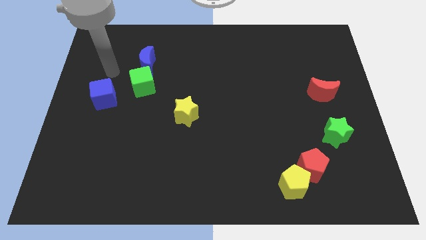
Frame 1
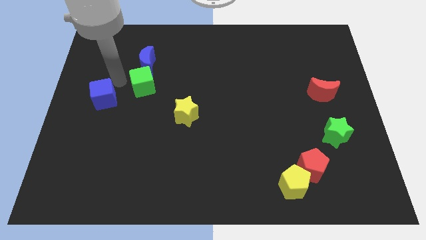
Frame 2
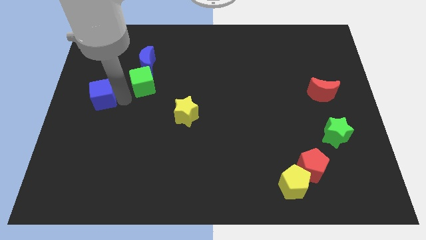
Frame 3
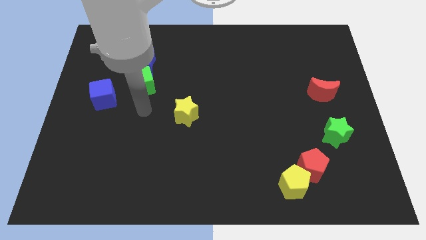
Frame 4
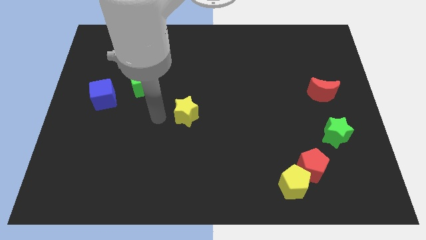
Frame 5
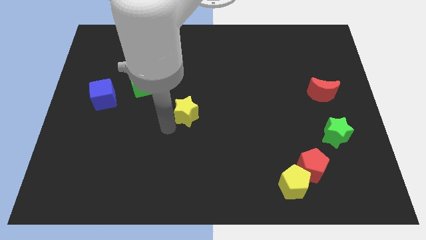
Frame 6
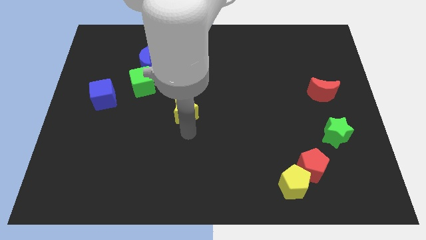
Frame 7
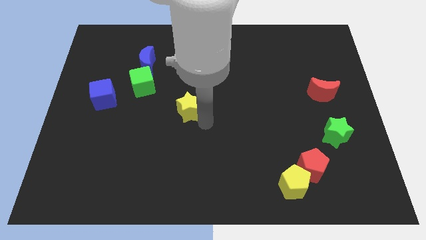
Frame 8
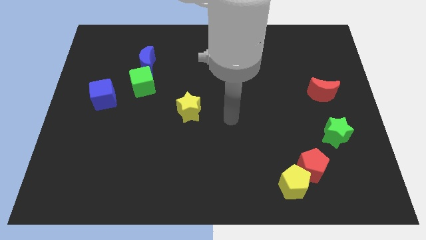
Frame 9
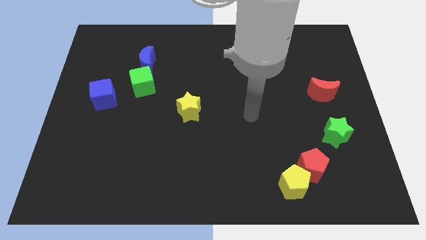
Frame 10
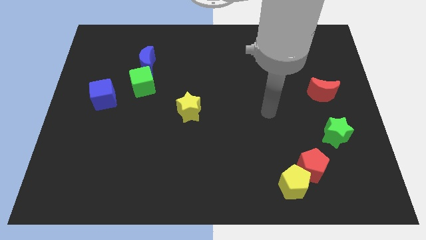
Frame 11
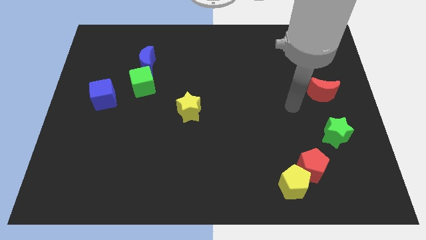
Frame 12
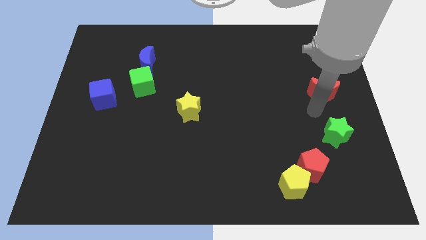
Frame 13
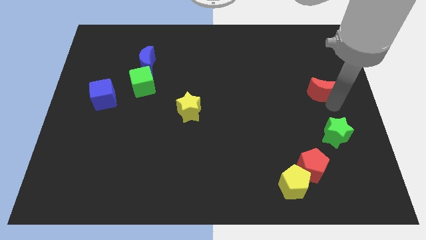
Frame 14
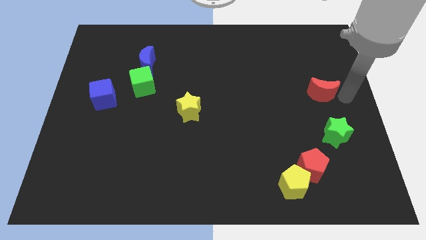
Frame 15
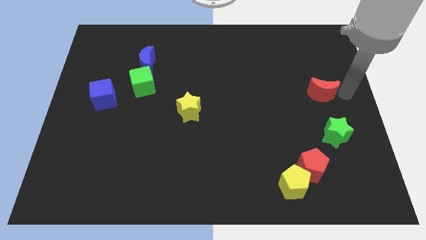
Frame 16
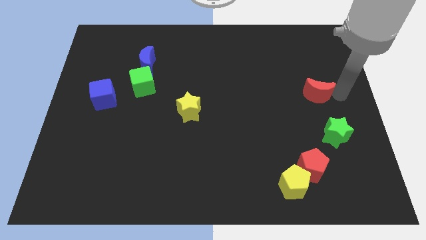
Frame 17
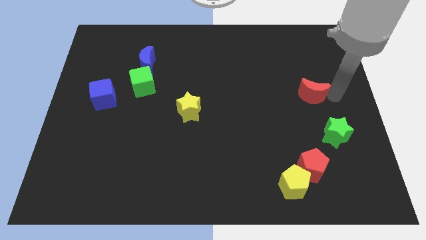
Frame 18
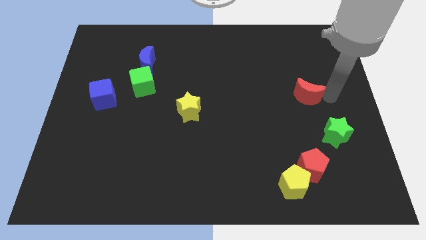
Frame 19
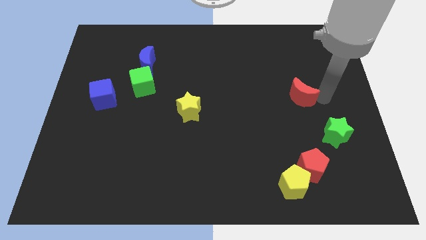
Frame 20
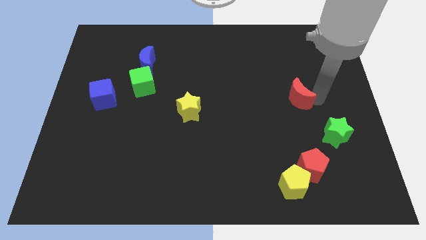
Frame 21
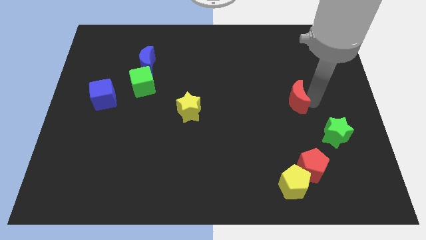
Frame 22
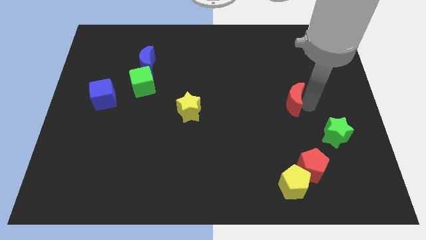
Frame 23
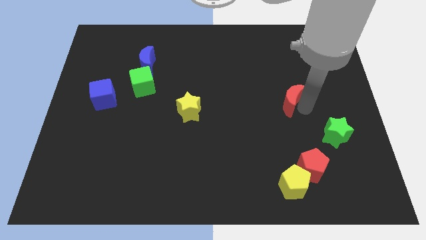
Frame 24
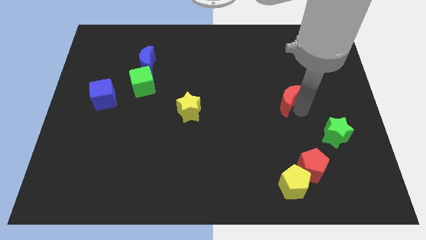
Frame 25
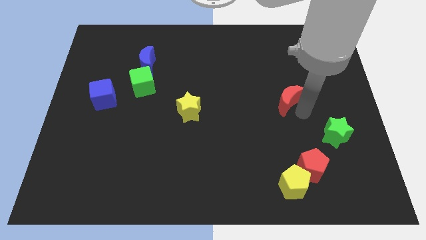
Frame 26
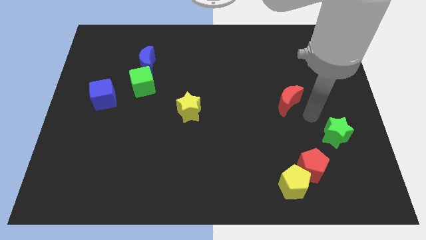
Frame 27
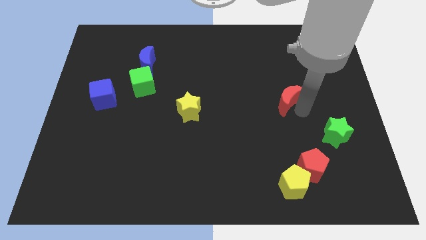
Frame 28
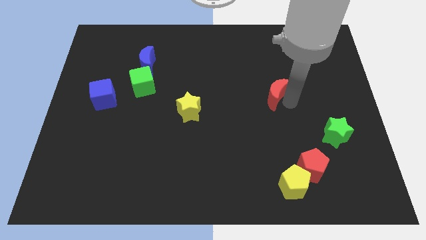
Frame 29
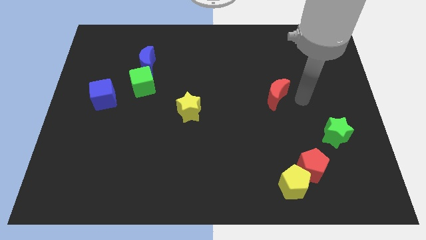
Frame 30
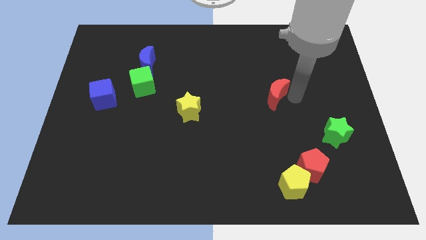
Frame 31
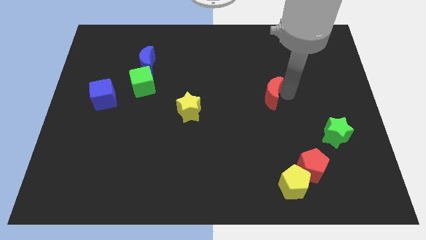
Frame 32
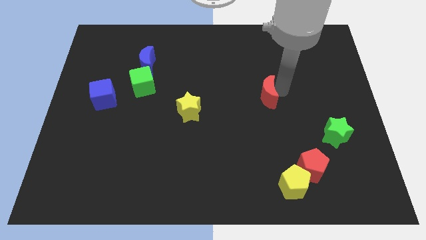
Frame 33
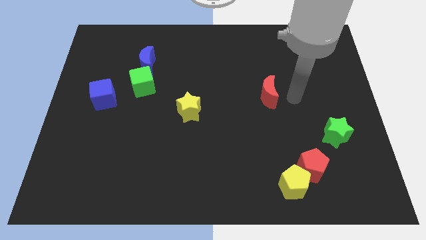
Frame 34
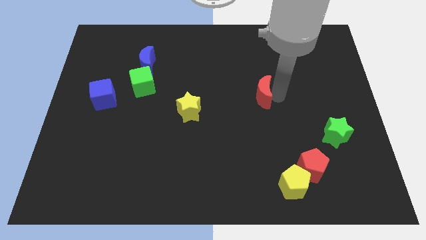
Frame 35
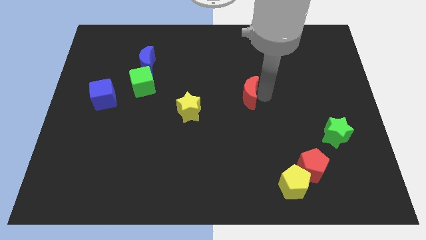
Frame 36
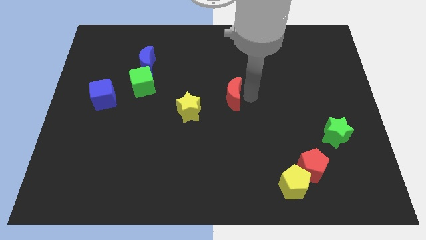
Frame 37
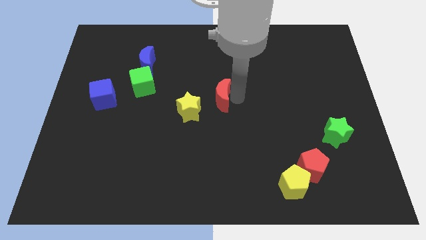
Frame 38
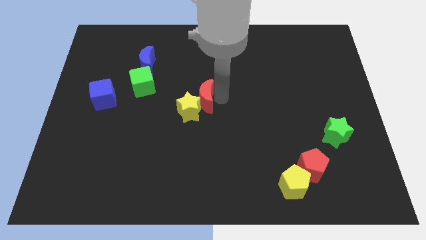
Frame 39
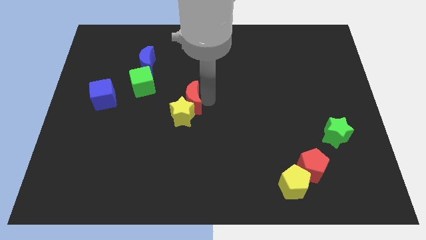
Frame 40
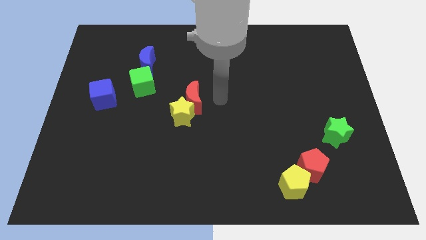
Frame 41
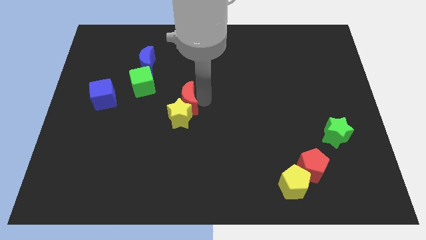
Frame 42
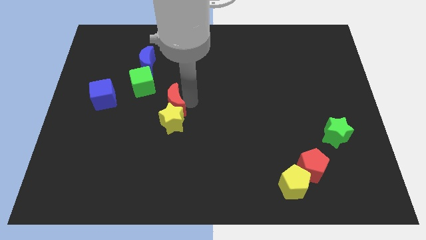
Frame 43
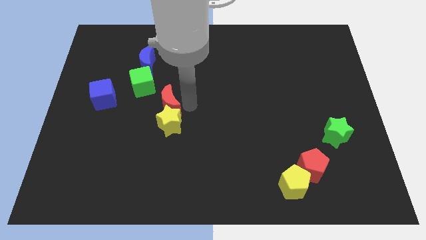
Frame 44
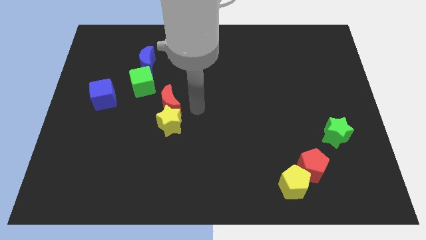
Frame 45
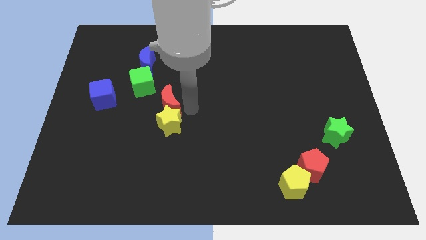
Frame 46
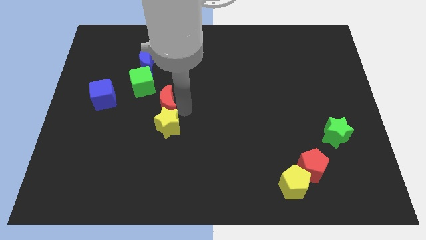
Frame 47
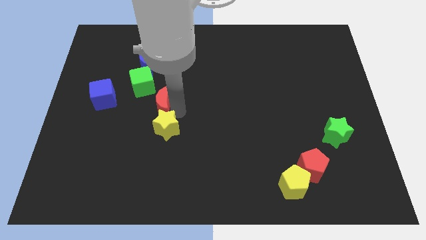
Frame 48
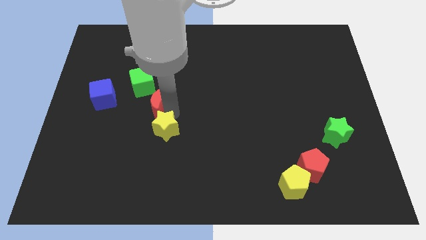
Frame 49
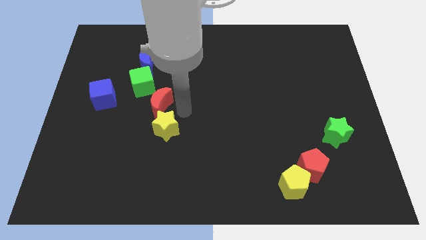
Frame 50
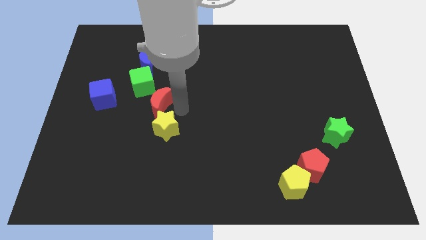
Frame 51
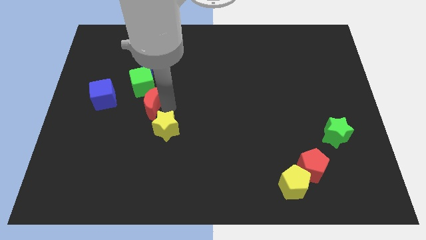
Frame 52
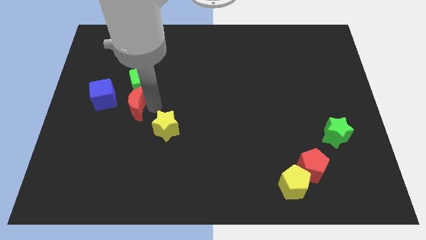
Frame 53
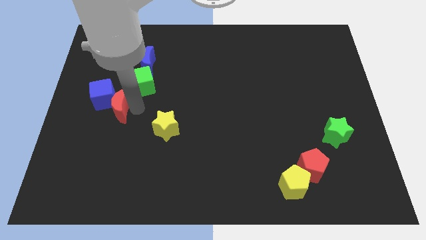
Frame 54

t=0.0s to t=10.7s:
push the red moon towards the blue cube

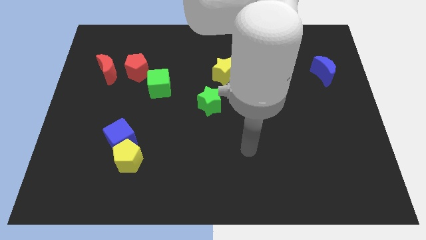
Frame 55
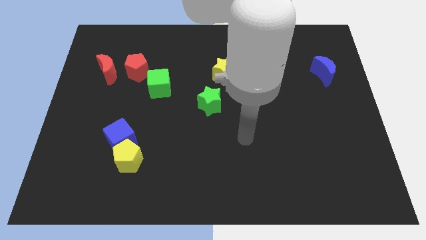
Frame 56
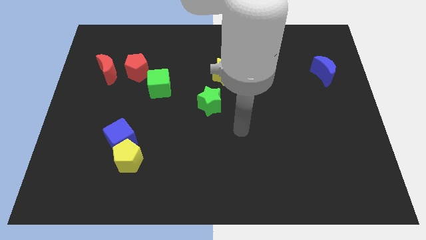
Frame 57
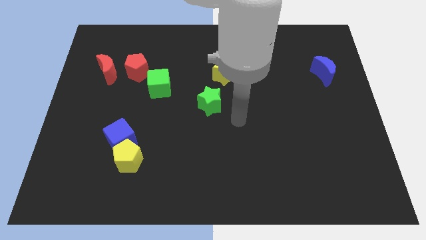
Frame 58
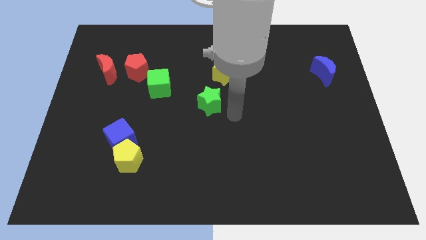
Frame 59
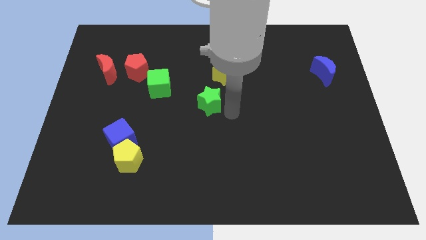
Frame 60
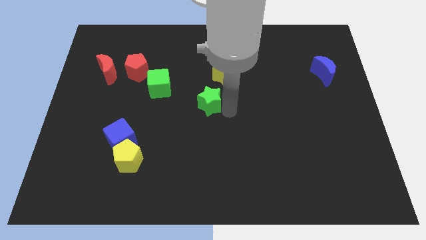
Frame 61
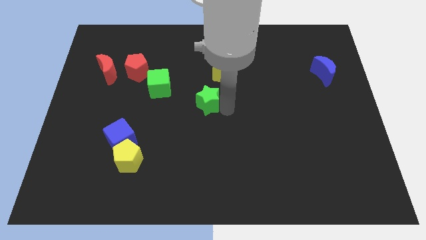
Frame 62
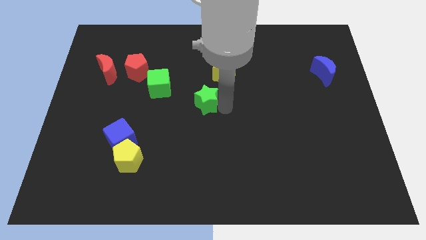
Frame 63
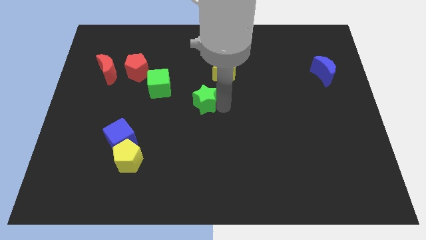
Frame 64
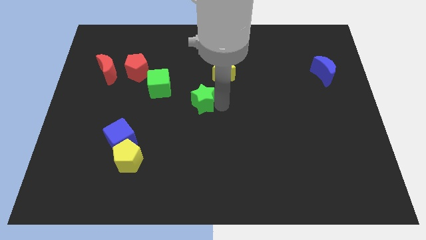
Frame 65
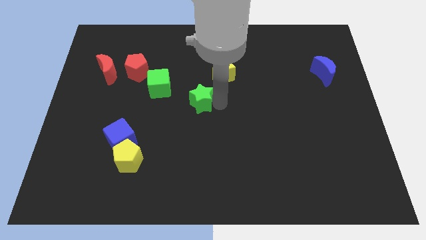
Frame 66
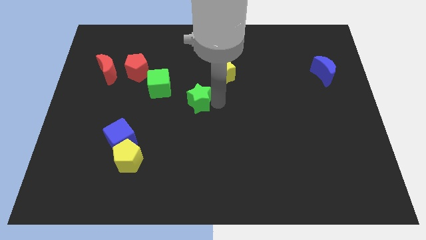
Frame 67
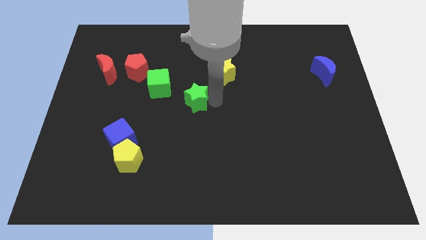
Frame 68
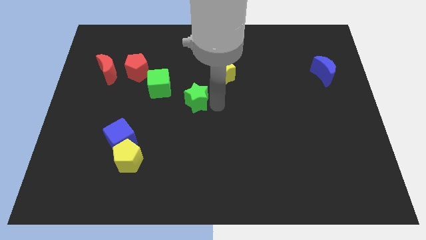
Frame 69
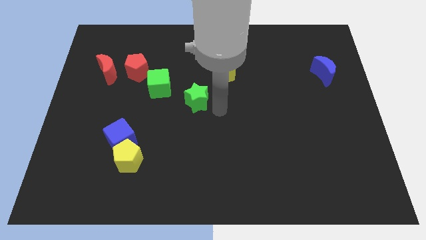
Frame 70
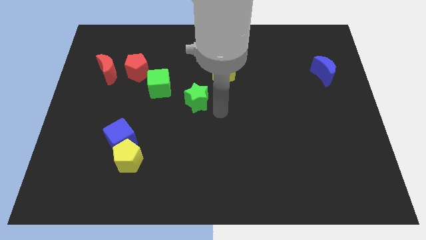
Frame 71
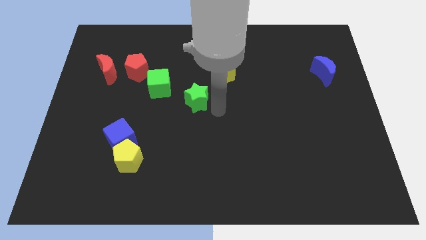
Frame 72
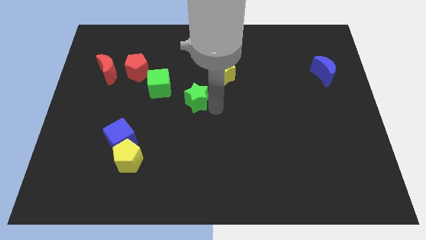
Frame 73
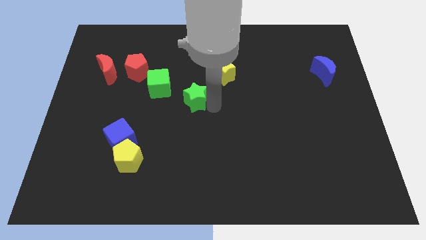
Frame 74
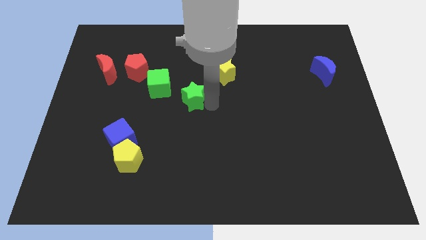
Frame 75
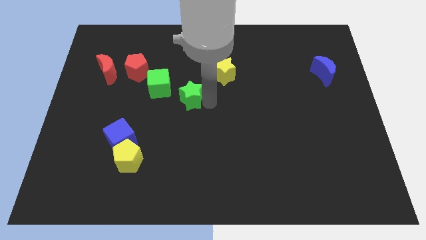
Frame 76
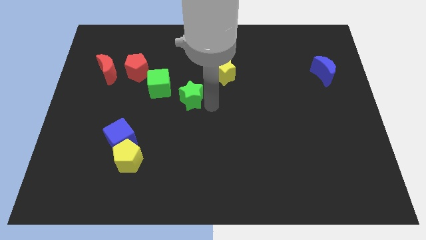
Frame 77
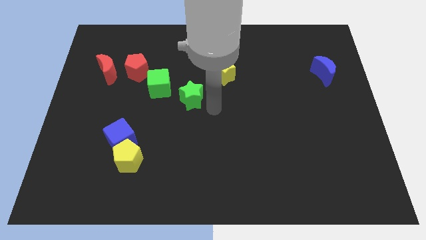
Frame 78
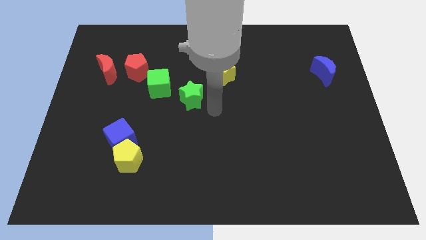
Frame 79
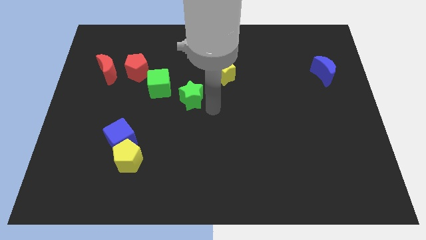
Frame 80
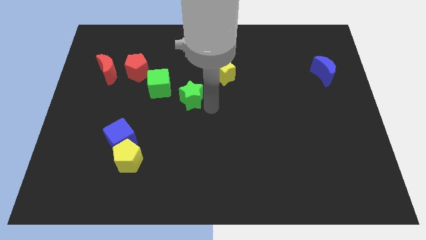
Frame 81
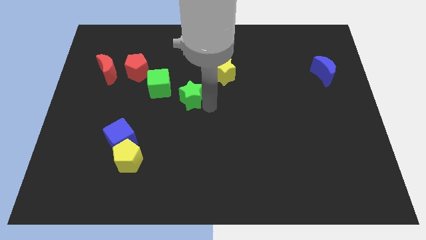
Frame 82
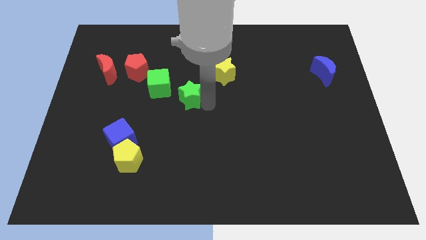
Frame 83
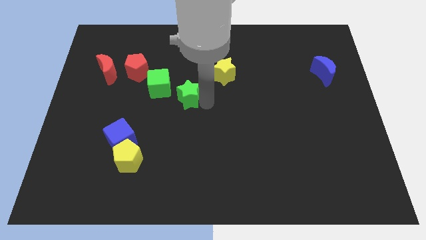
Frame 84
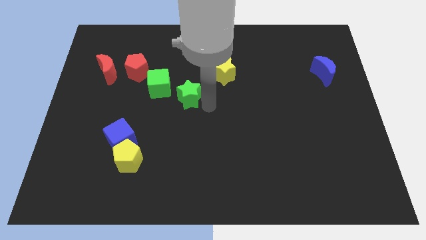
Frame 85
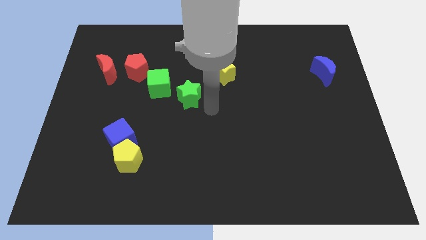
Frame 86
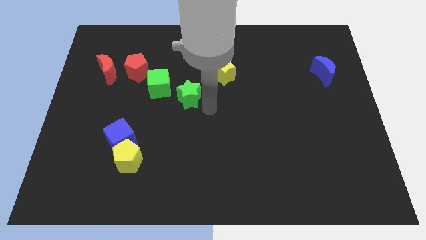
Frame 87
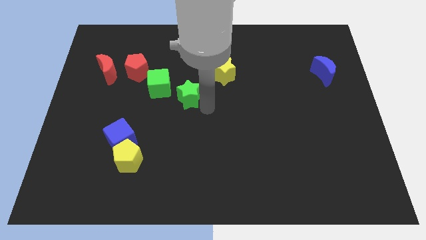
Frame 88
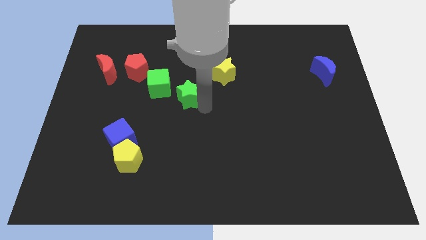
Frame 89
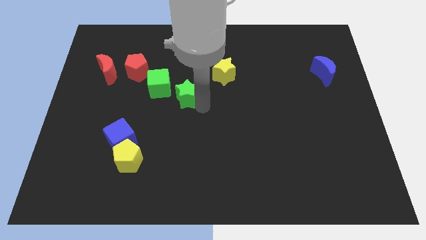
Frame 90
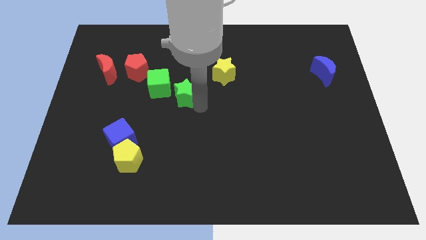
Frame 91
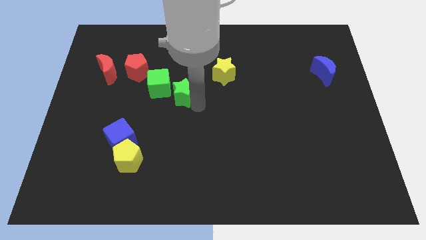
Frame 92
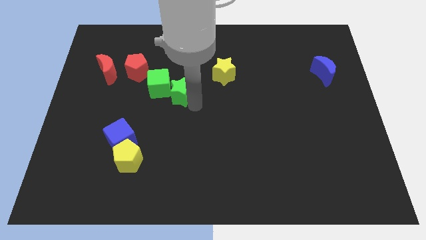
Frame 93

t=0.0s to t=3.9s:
push the green star to the green cube
